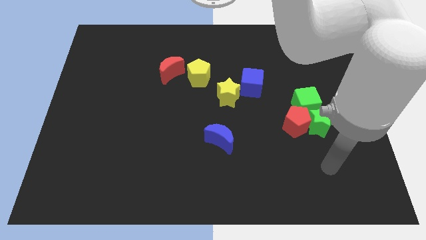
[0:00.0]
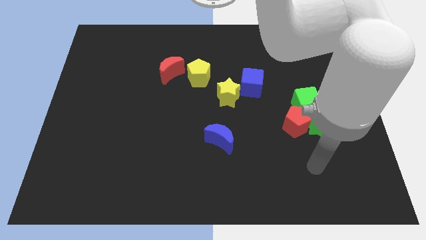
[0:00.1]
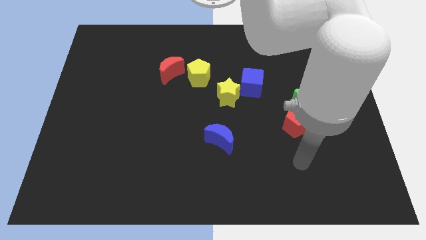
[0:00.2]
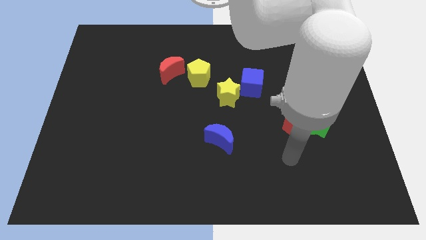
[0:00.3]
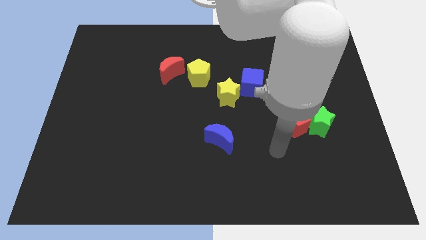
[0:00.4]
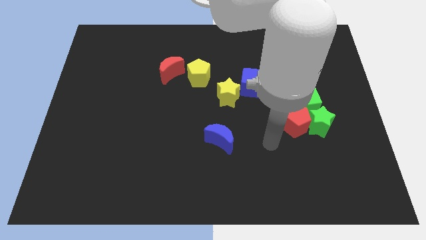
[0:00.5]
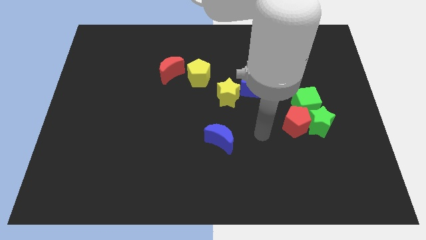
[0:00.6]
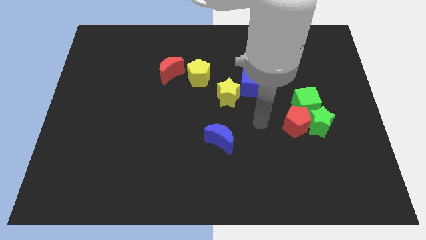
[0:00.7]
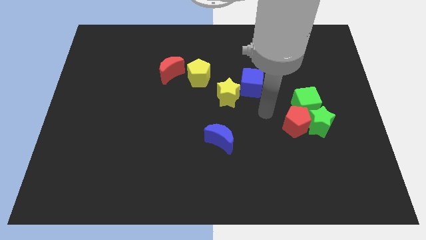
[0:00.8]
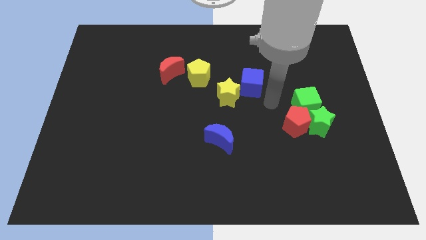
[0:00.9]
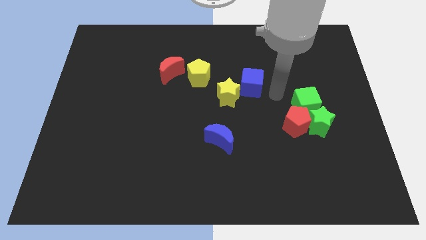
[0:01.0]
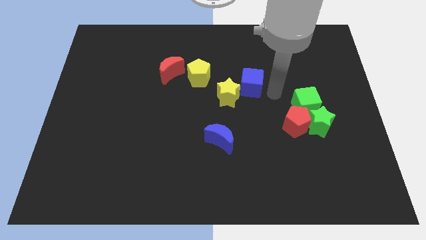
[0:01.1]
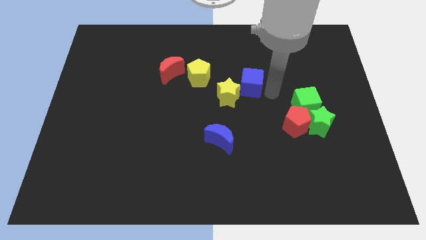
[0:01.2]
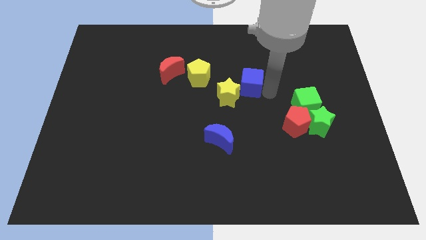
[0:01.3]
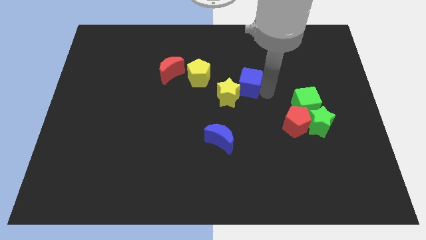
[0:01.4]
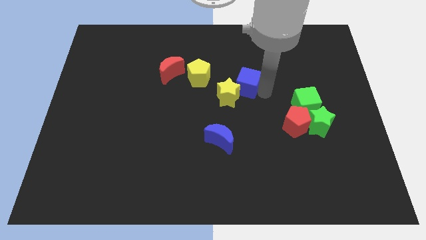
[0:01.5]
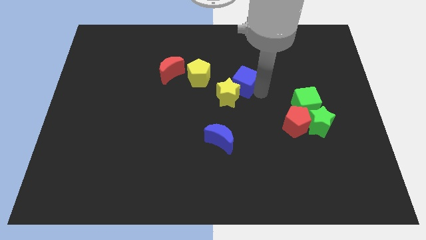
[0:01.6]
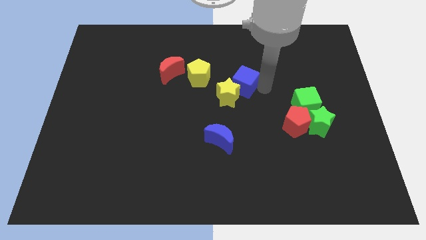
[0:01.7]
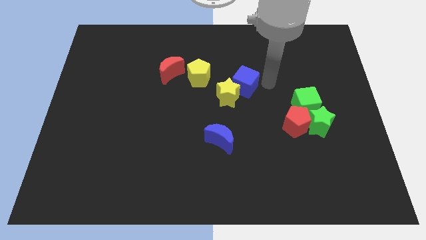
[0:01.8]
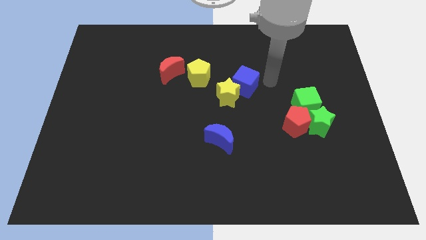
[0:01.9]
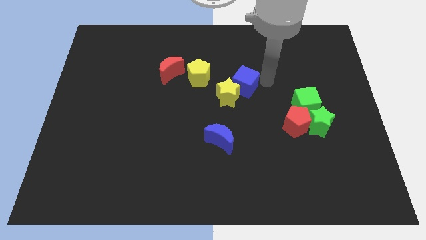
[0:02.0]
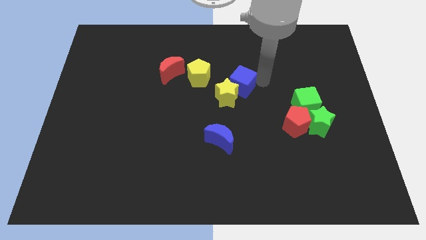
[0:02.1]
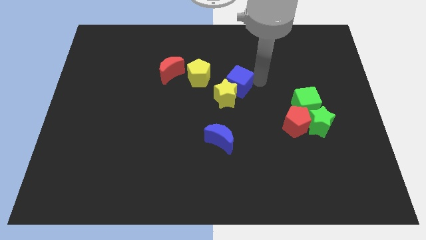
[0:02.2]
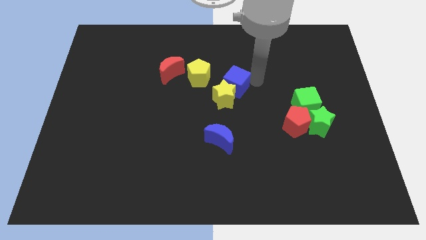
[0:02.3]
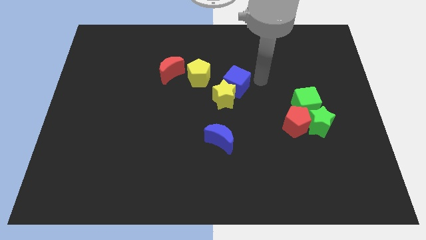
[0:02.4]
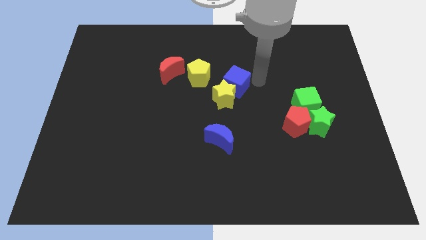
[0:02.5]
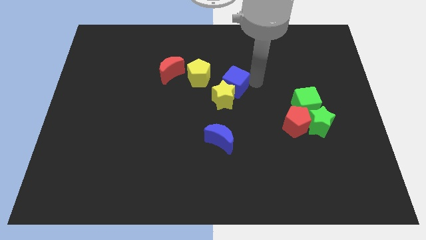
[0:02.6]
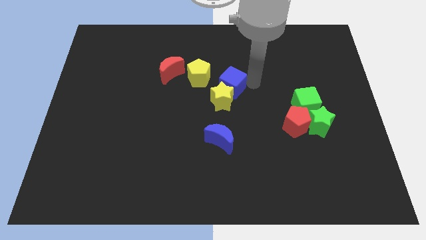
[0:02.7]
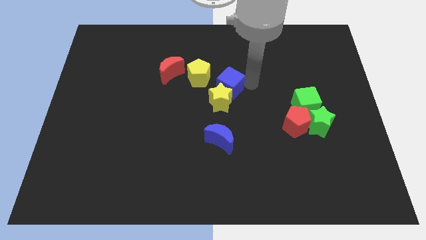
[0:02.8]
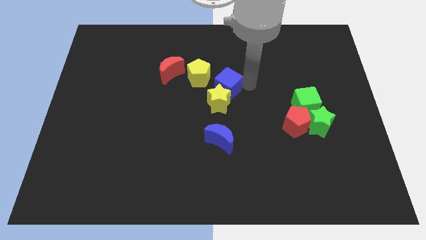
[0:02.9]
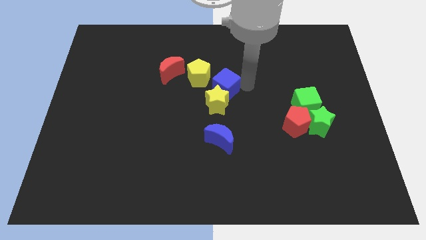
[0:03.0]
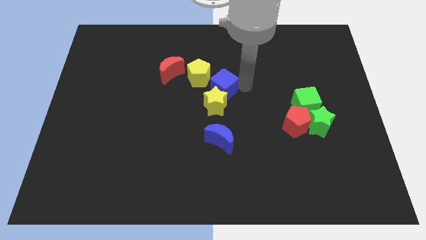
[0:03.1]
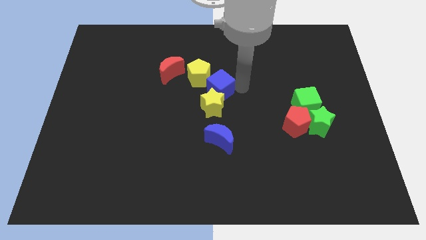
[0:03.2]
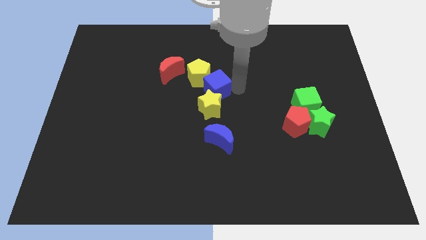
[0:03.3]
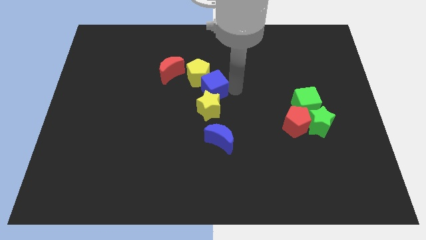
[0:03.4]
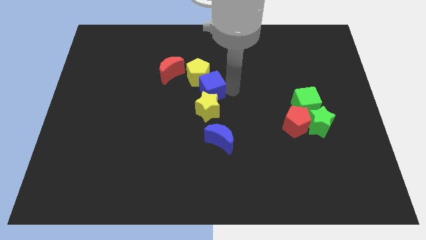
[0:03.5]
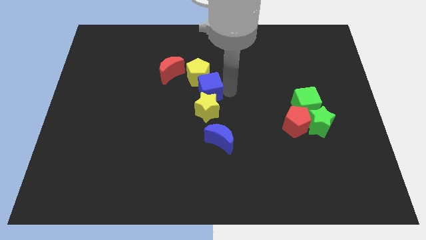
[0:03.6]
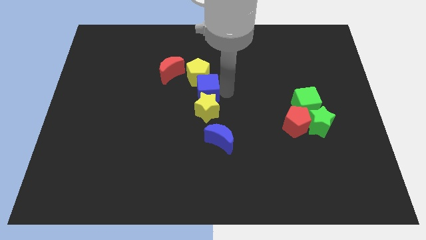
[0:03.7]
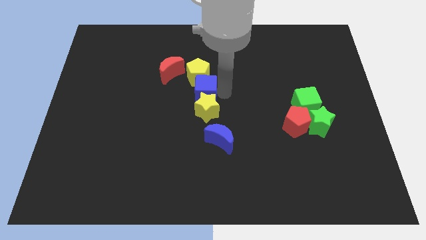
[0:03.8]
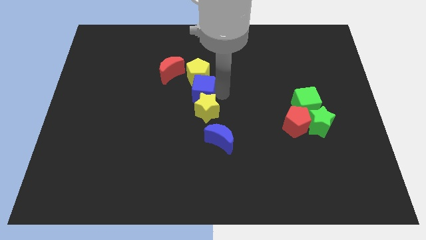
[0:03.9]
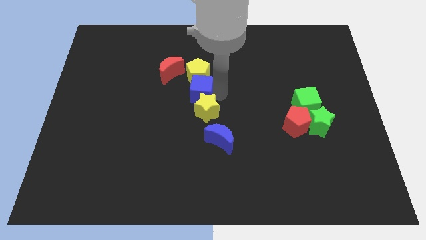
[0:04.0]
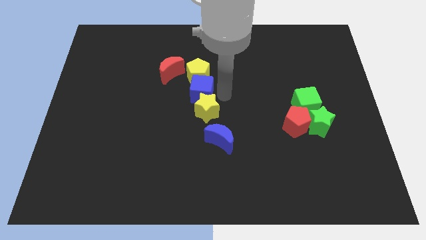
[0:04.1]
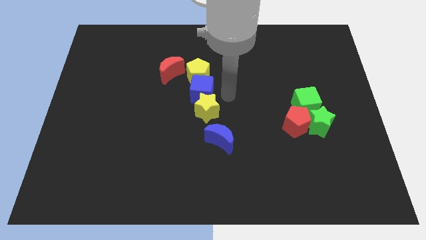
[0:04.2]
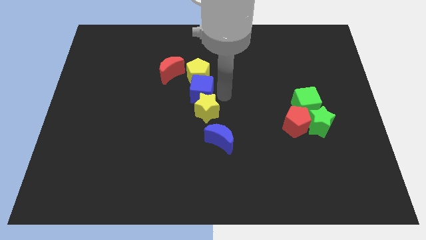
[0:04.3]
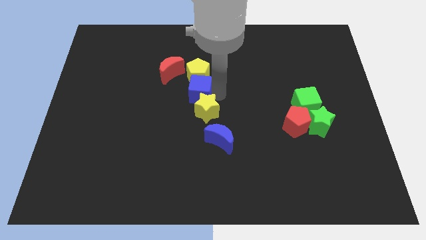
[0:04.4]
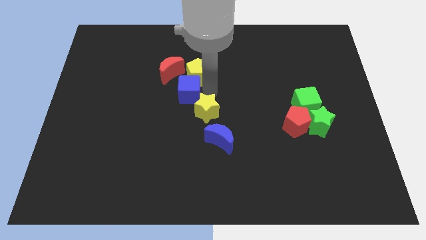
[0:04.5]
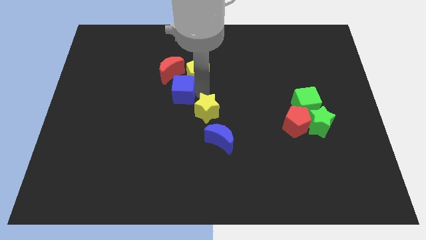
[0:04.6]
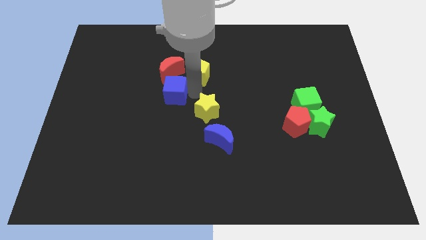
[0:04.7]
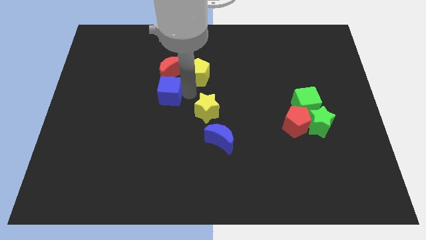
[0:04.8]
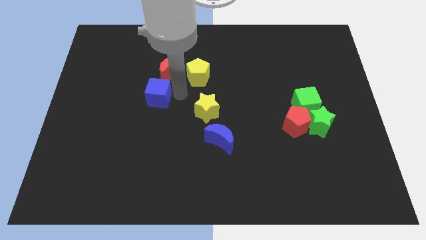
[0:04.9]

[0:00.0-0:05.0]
move the blue cube left

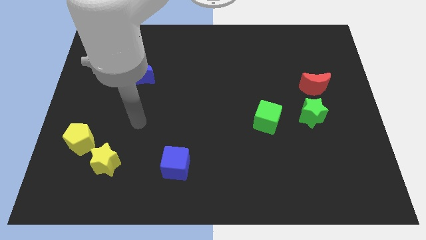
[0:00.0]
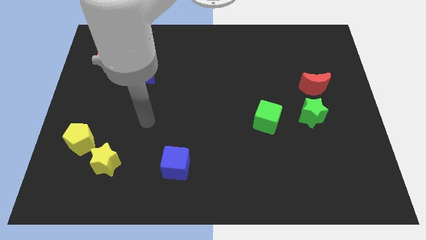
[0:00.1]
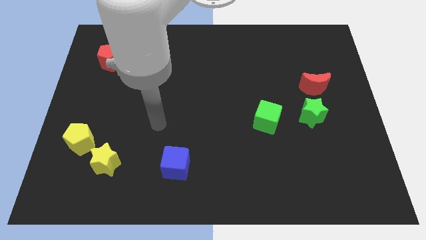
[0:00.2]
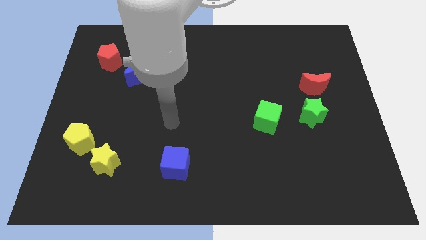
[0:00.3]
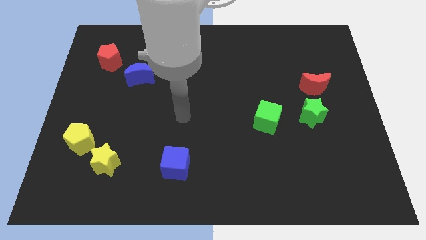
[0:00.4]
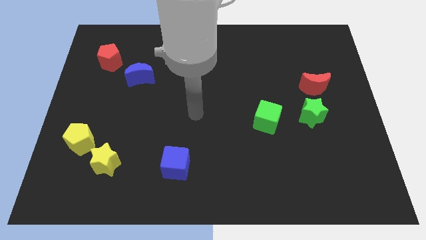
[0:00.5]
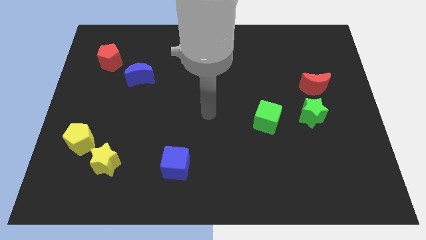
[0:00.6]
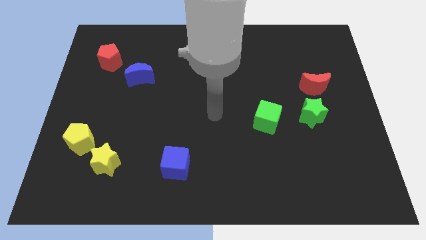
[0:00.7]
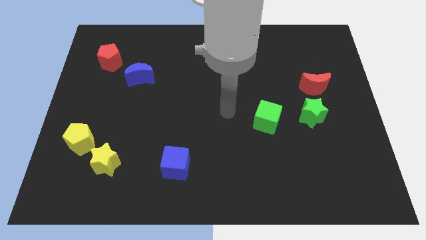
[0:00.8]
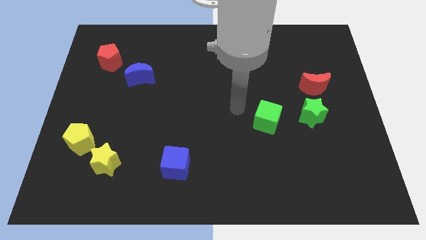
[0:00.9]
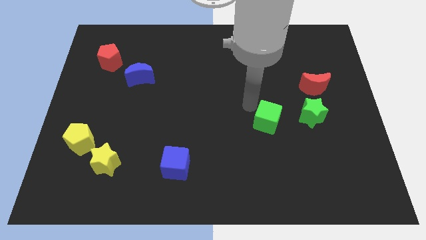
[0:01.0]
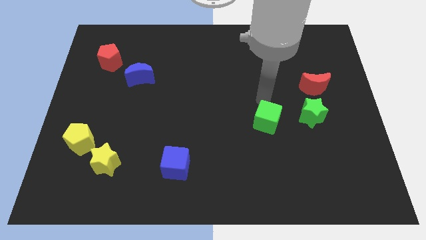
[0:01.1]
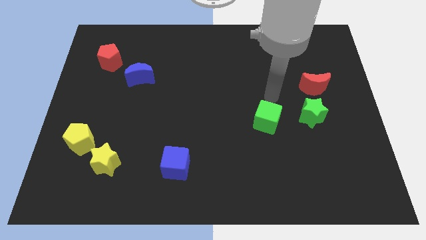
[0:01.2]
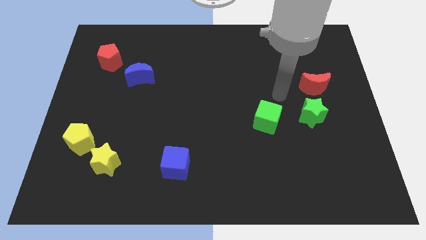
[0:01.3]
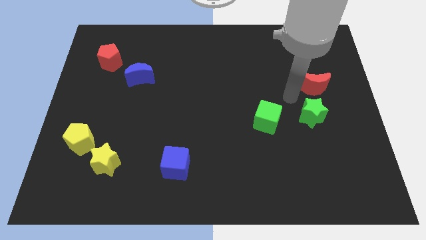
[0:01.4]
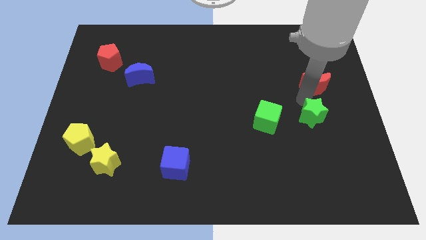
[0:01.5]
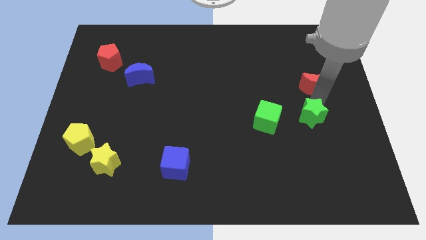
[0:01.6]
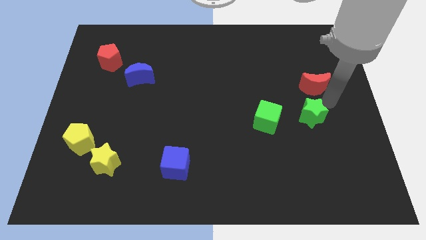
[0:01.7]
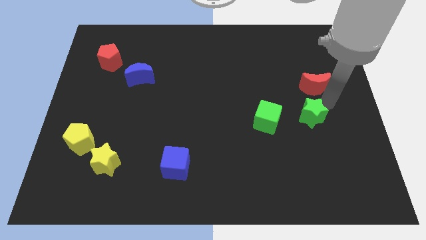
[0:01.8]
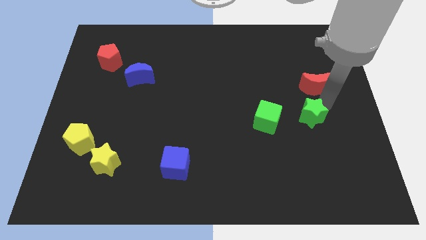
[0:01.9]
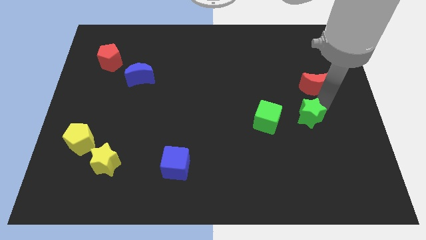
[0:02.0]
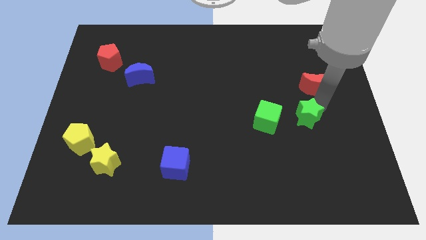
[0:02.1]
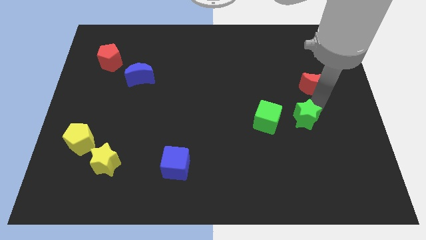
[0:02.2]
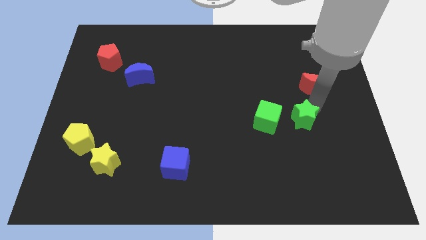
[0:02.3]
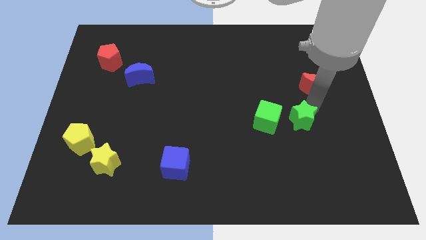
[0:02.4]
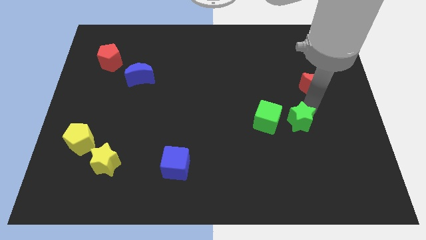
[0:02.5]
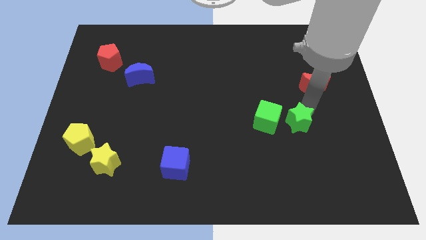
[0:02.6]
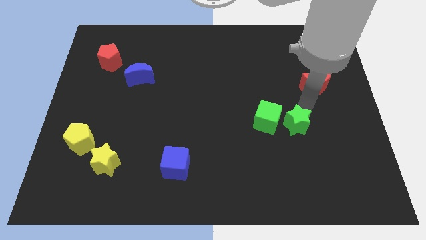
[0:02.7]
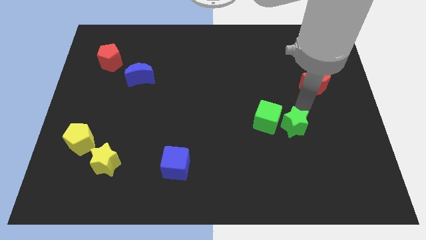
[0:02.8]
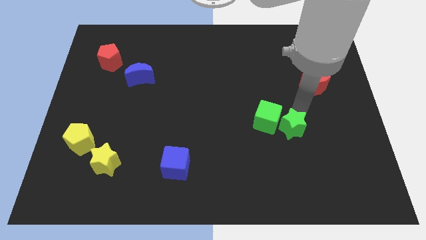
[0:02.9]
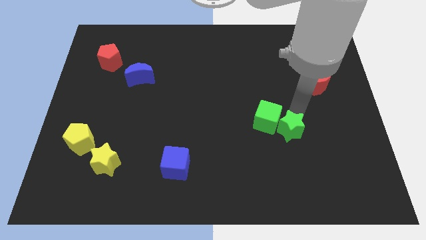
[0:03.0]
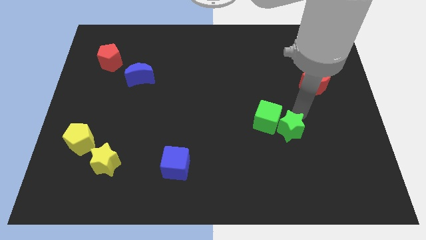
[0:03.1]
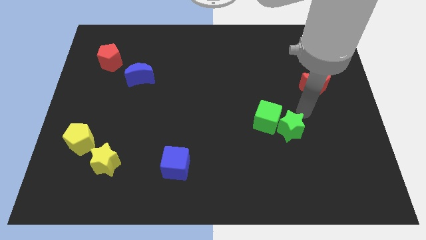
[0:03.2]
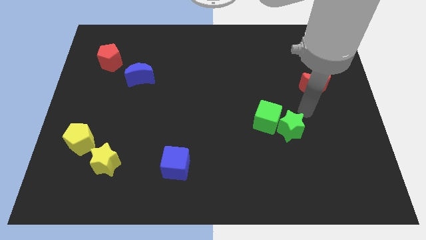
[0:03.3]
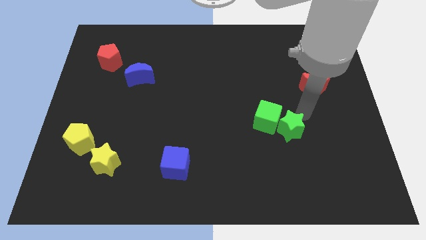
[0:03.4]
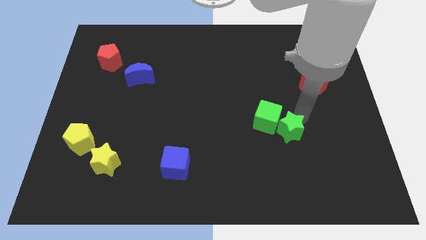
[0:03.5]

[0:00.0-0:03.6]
push the green star slightly down and left diagonally
